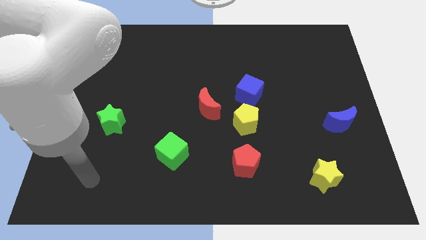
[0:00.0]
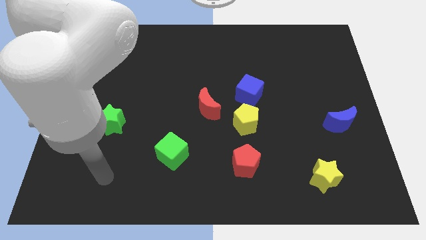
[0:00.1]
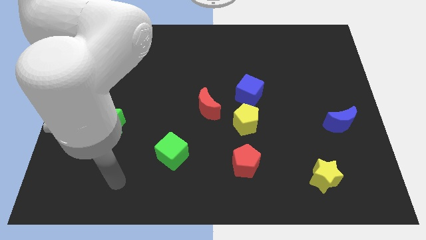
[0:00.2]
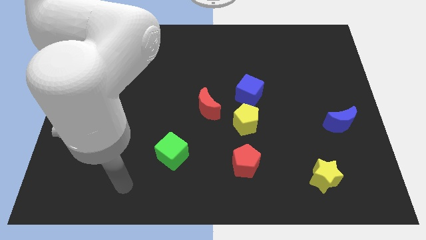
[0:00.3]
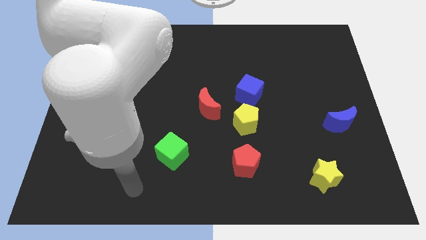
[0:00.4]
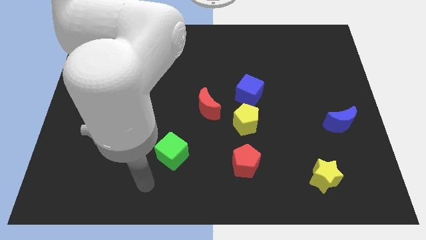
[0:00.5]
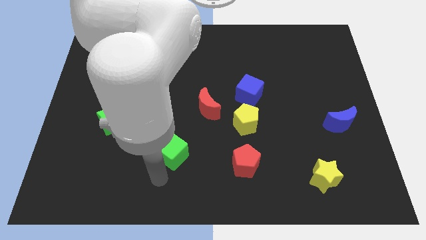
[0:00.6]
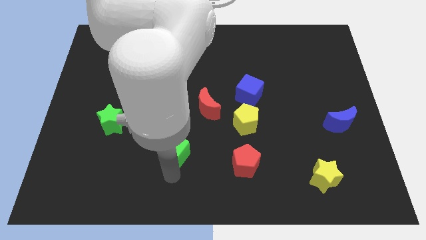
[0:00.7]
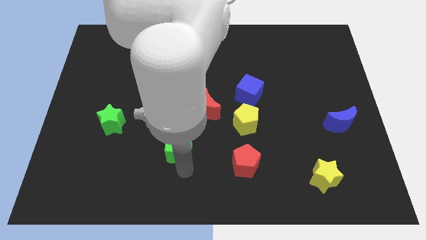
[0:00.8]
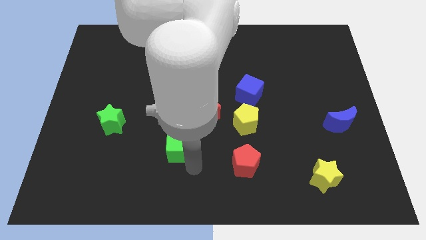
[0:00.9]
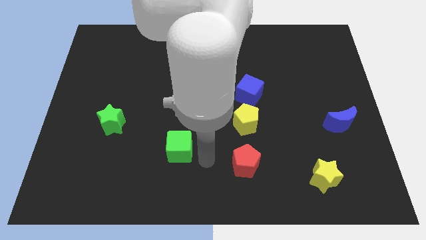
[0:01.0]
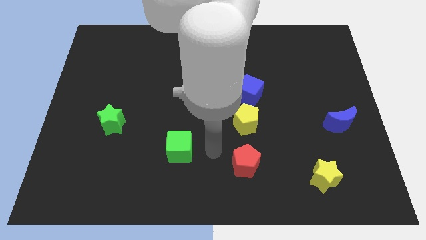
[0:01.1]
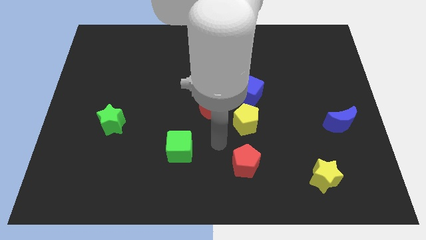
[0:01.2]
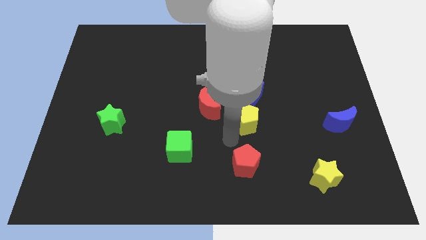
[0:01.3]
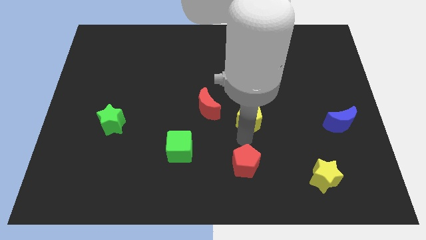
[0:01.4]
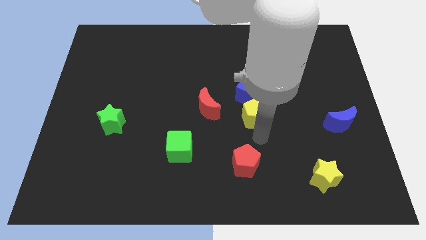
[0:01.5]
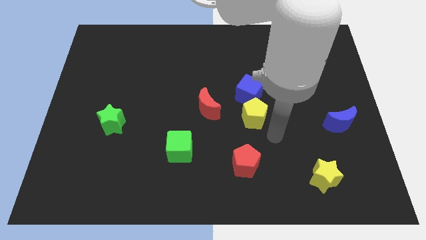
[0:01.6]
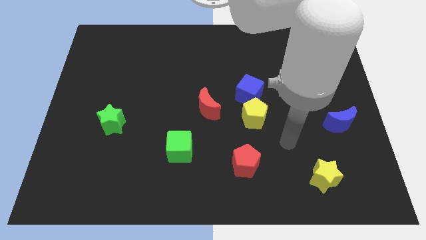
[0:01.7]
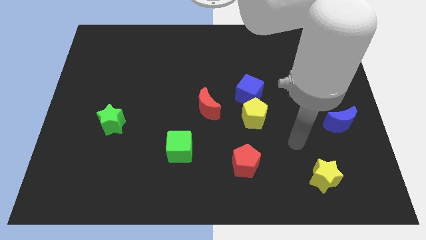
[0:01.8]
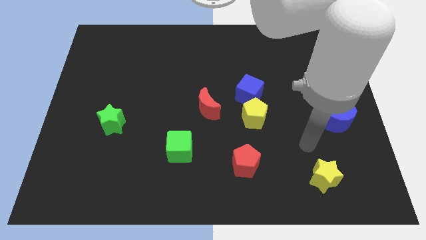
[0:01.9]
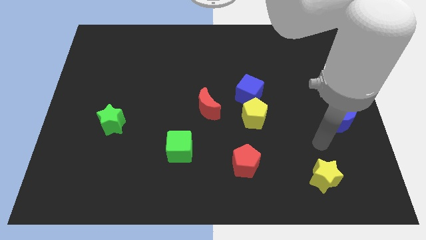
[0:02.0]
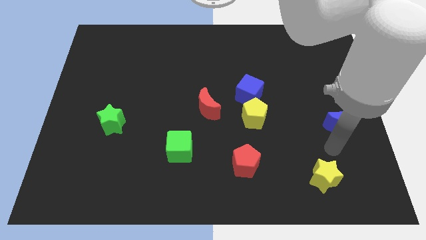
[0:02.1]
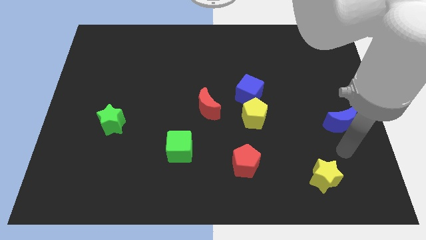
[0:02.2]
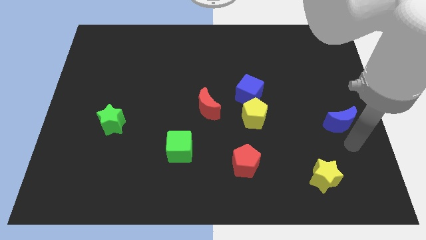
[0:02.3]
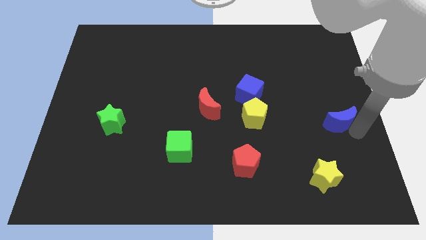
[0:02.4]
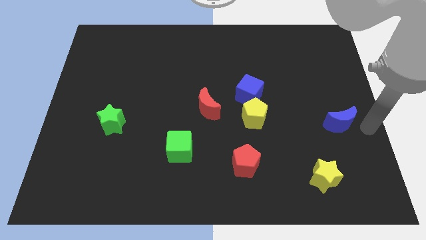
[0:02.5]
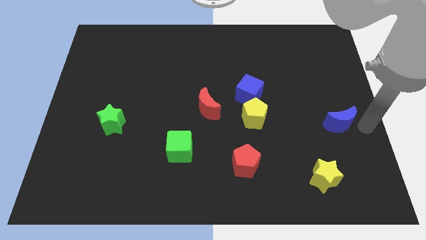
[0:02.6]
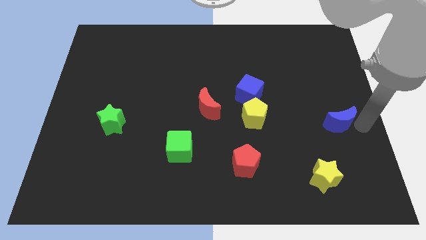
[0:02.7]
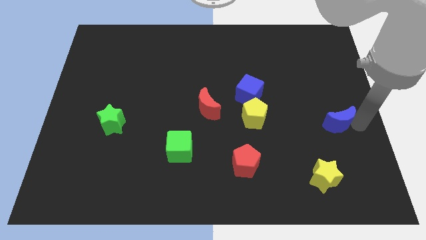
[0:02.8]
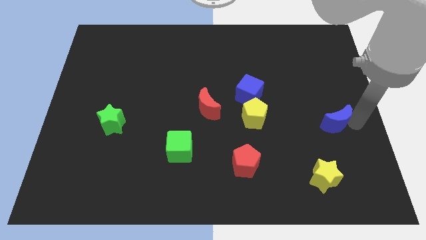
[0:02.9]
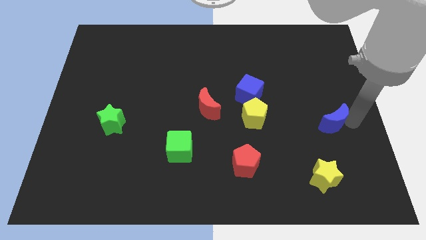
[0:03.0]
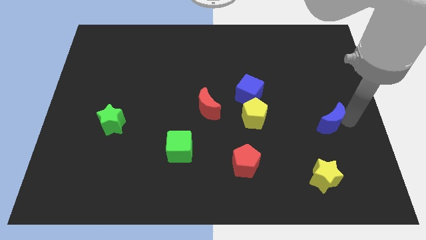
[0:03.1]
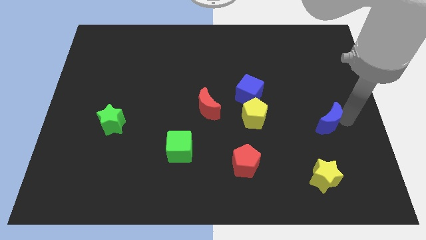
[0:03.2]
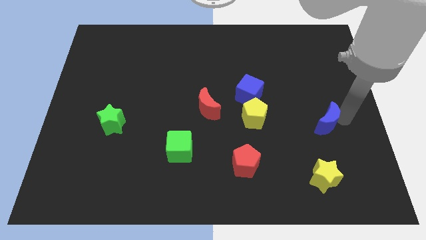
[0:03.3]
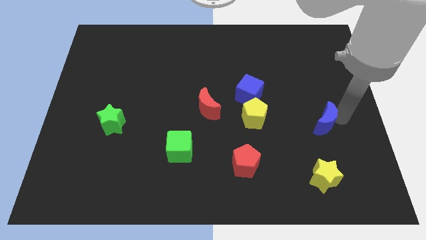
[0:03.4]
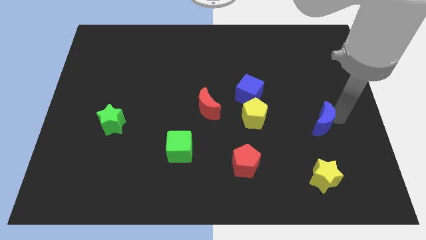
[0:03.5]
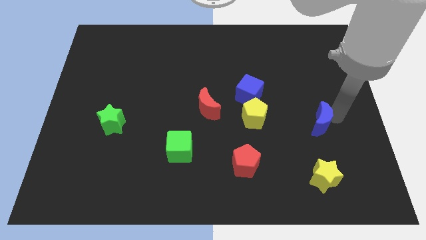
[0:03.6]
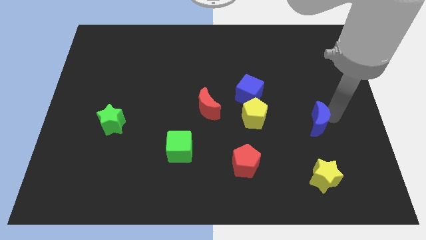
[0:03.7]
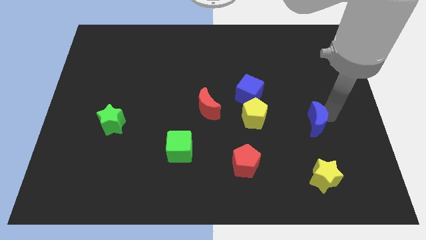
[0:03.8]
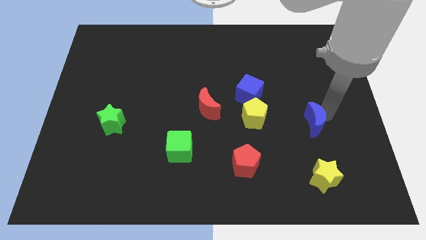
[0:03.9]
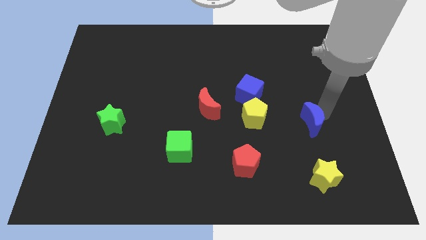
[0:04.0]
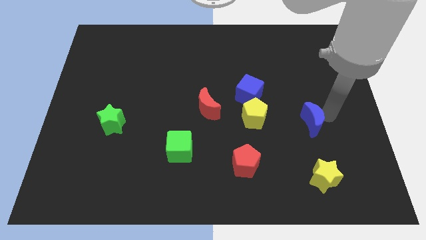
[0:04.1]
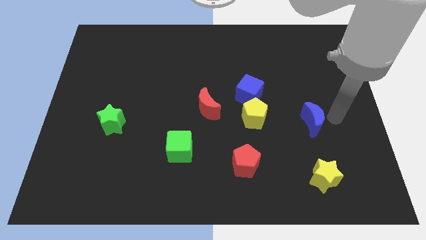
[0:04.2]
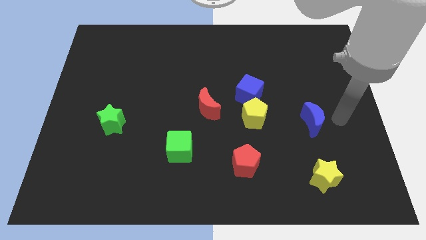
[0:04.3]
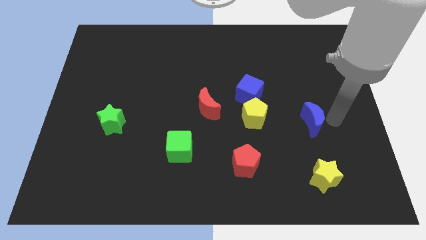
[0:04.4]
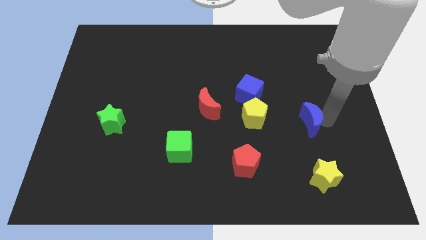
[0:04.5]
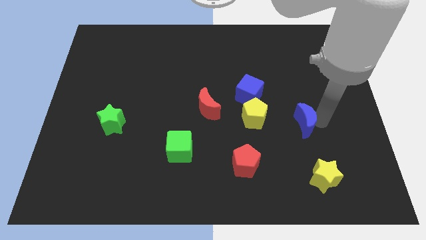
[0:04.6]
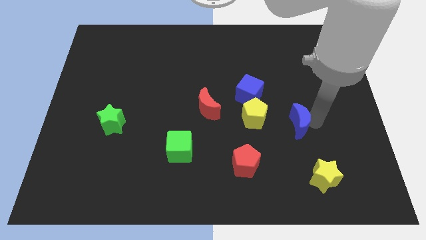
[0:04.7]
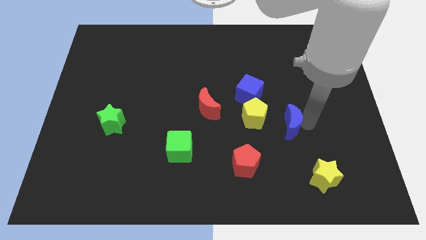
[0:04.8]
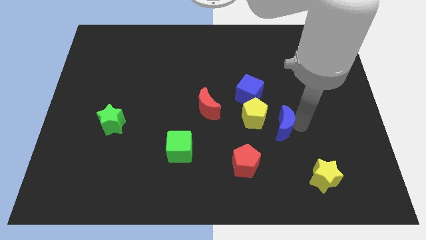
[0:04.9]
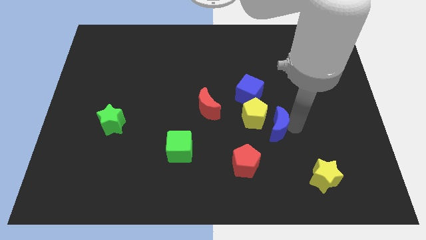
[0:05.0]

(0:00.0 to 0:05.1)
slide the blue moon close to the yellow pentagon

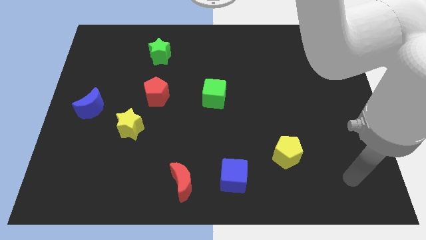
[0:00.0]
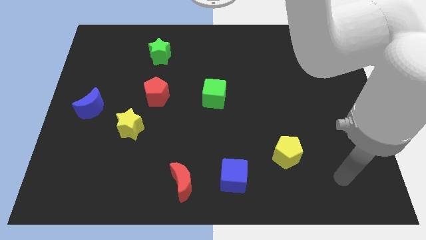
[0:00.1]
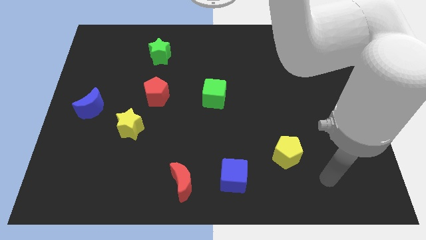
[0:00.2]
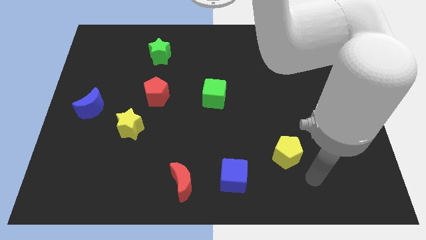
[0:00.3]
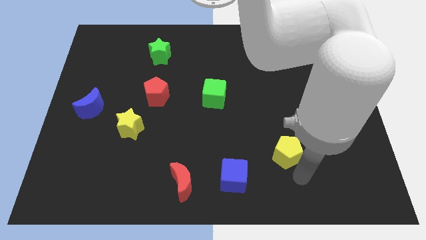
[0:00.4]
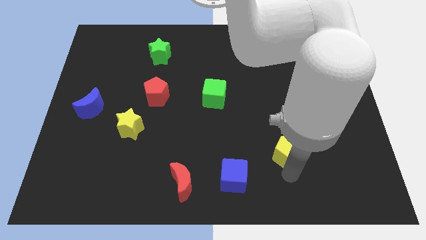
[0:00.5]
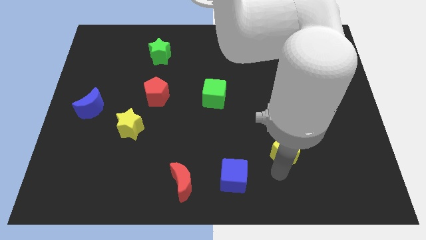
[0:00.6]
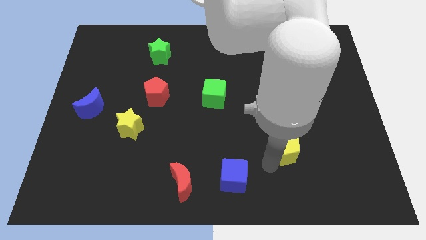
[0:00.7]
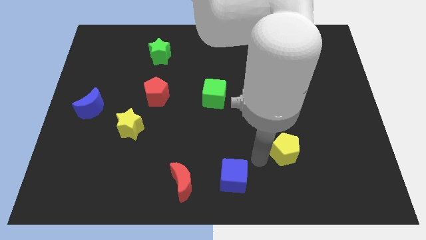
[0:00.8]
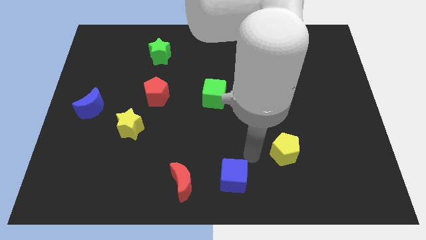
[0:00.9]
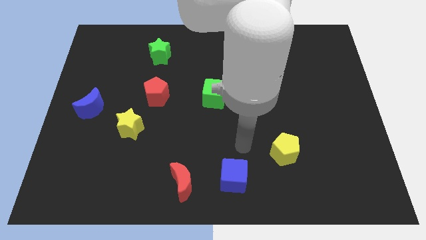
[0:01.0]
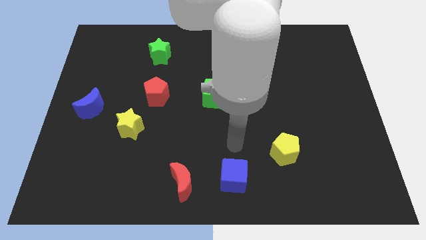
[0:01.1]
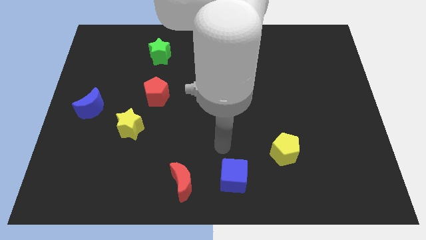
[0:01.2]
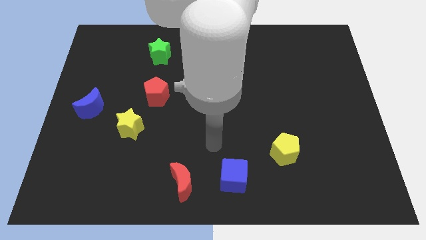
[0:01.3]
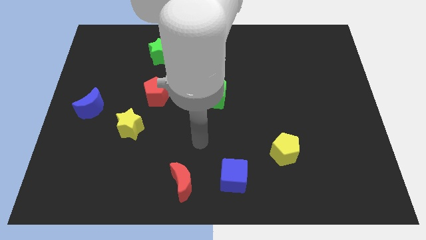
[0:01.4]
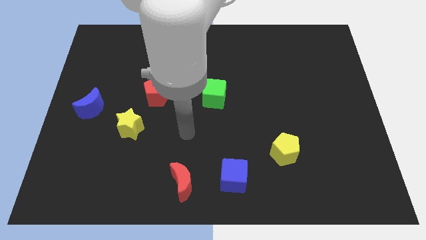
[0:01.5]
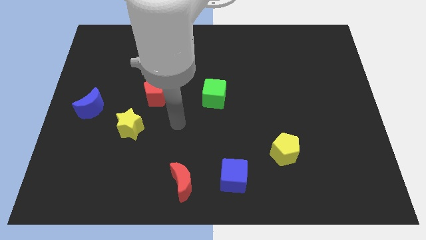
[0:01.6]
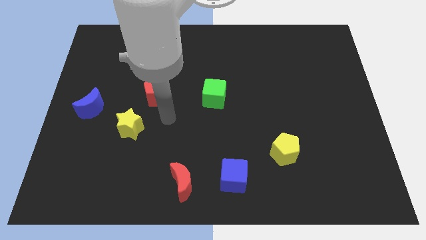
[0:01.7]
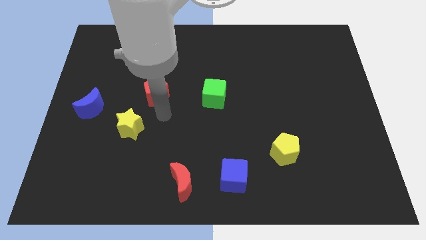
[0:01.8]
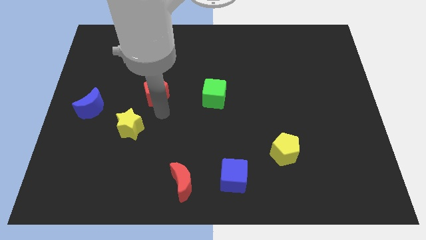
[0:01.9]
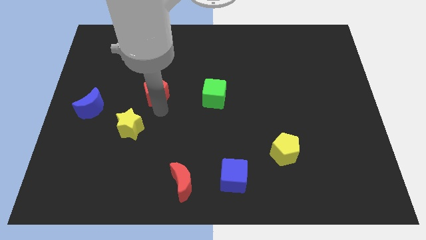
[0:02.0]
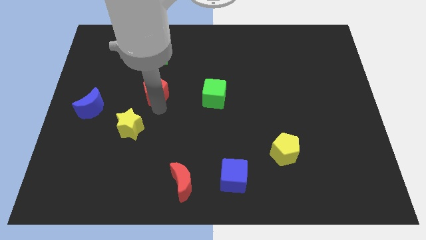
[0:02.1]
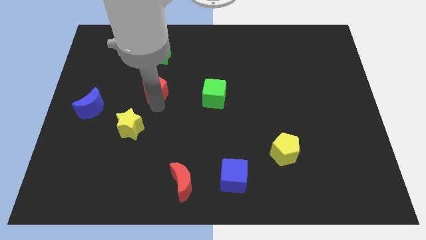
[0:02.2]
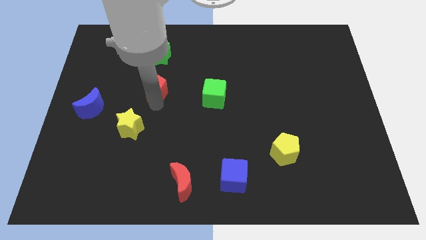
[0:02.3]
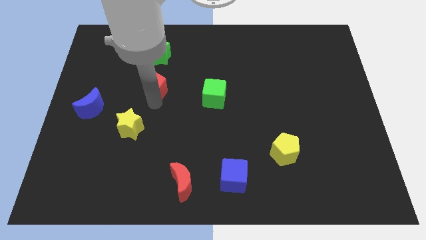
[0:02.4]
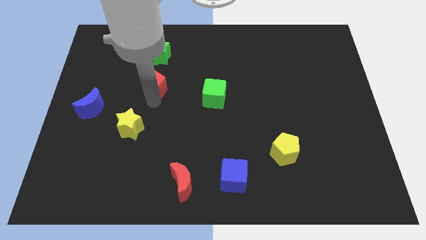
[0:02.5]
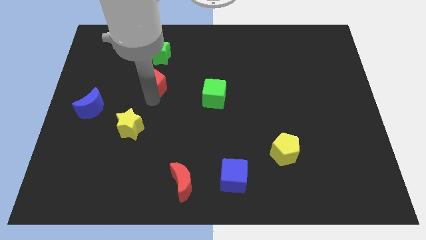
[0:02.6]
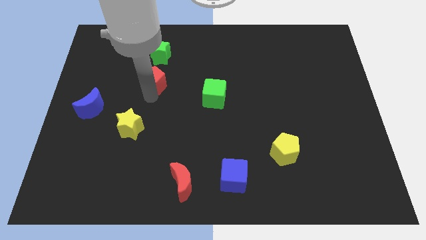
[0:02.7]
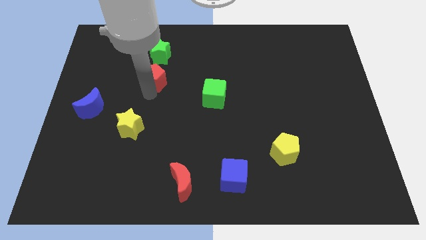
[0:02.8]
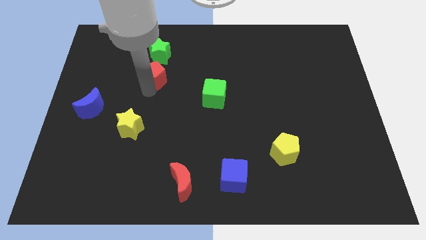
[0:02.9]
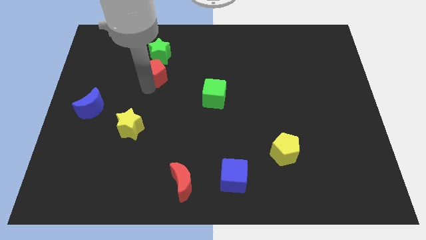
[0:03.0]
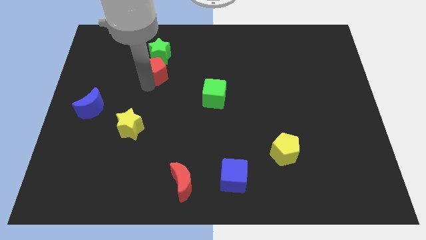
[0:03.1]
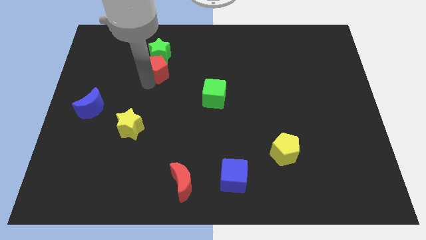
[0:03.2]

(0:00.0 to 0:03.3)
push the red pentagon to the green star
